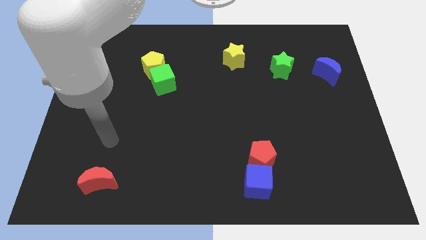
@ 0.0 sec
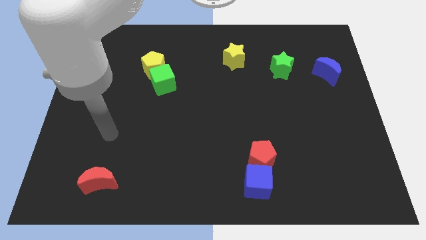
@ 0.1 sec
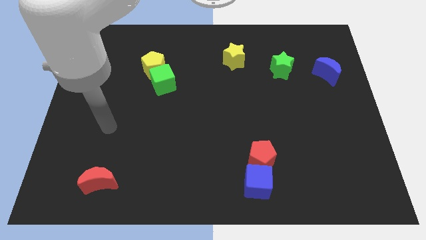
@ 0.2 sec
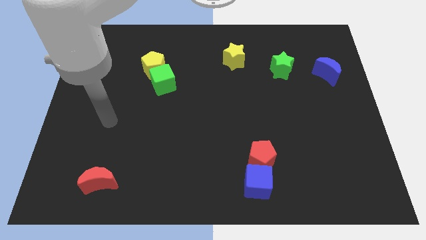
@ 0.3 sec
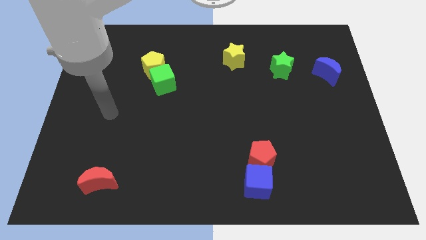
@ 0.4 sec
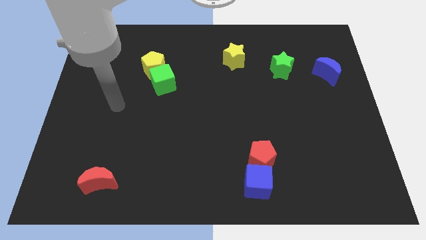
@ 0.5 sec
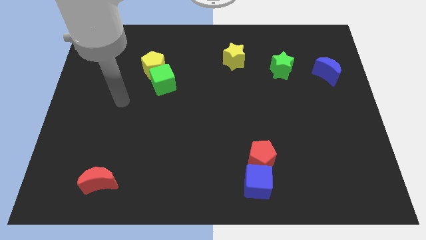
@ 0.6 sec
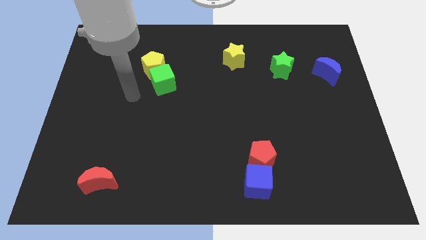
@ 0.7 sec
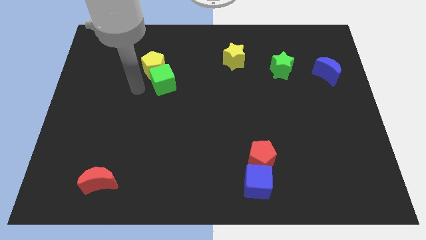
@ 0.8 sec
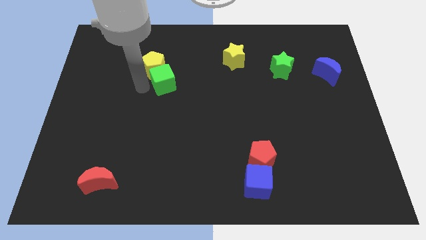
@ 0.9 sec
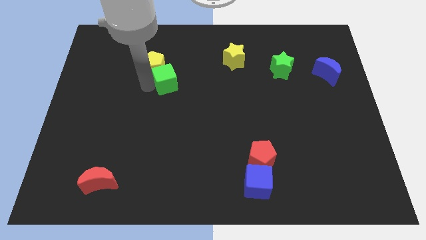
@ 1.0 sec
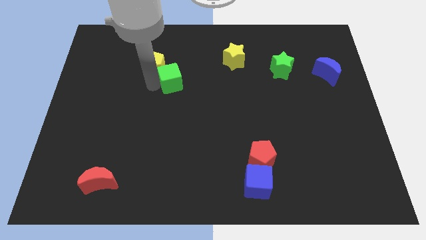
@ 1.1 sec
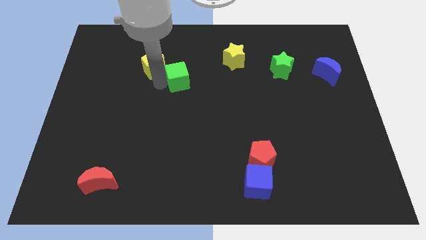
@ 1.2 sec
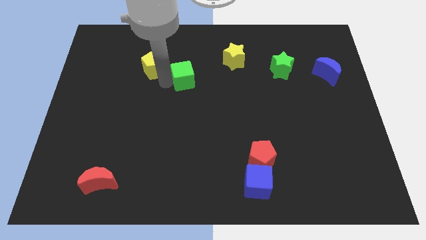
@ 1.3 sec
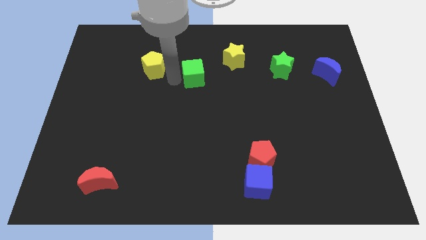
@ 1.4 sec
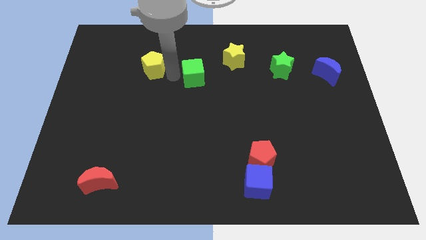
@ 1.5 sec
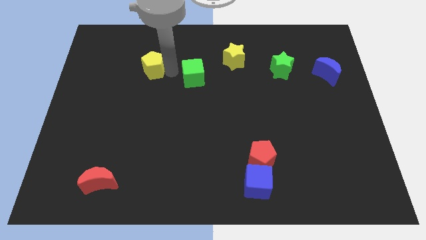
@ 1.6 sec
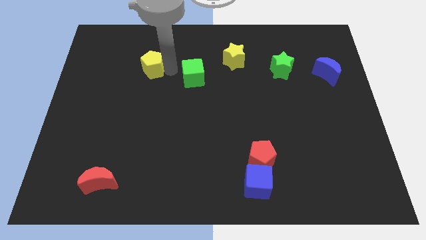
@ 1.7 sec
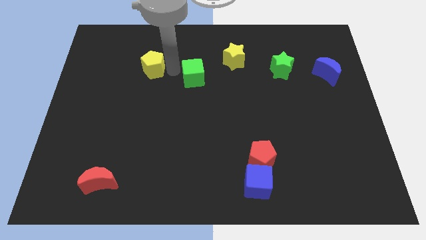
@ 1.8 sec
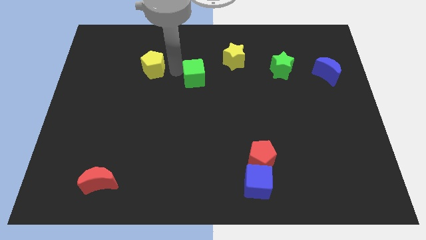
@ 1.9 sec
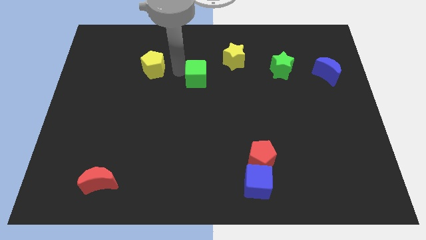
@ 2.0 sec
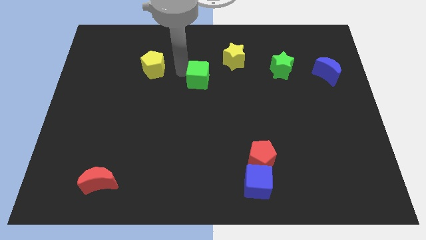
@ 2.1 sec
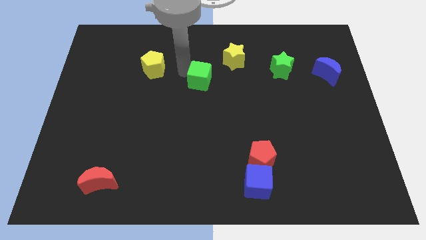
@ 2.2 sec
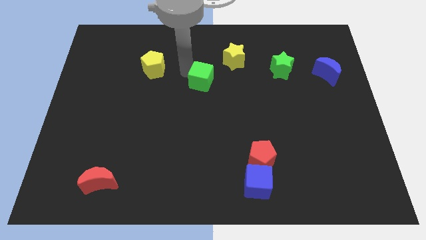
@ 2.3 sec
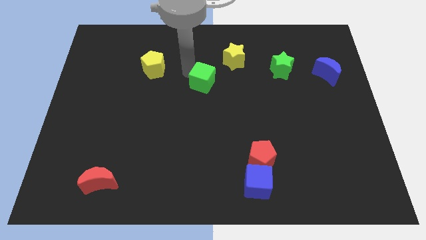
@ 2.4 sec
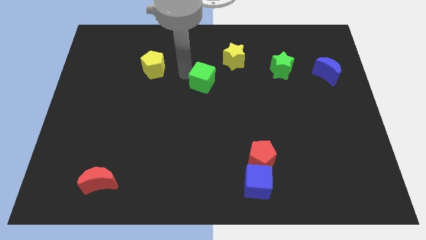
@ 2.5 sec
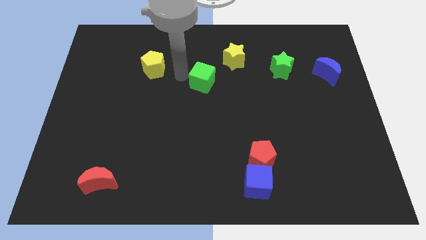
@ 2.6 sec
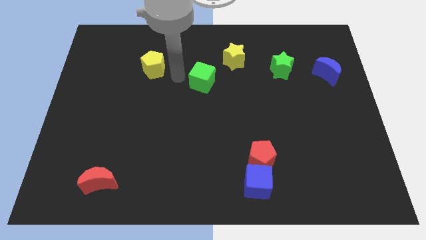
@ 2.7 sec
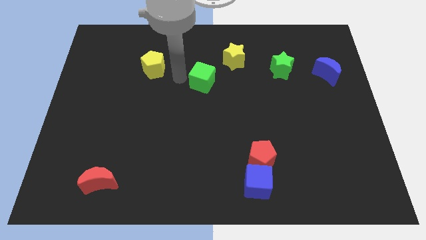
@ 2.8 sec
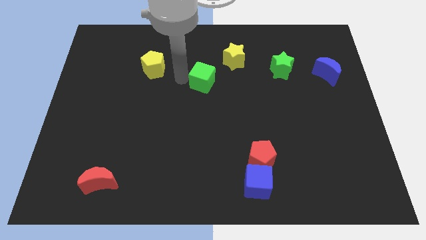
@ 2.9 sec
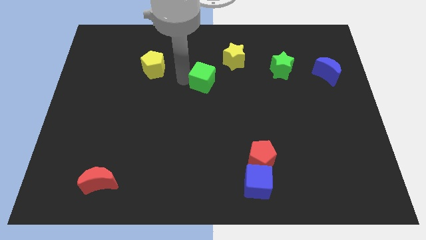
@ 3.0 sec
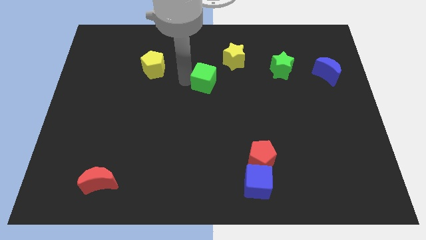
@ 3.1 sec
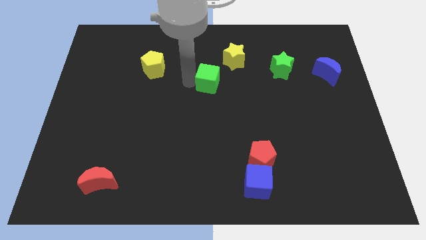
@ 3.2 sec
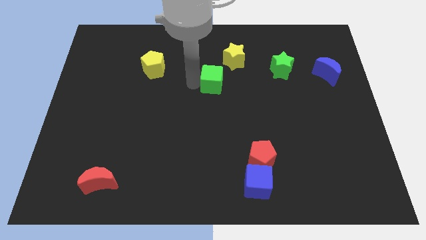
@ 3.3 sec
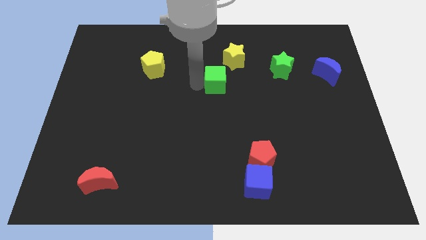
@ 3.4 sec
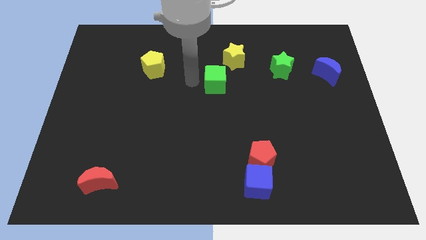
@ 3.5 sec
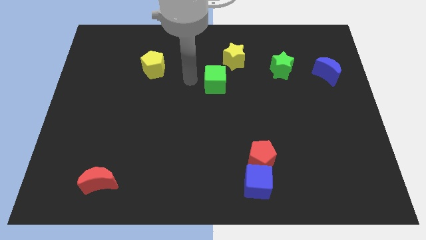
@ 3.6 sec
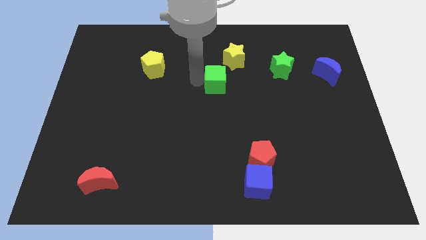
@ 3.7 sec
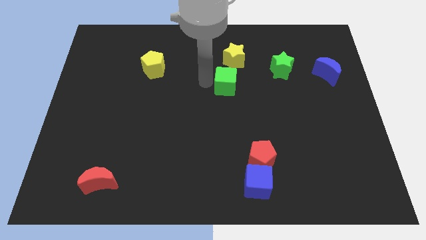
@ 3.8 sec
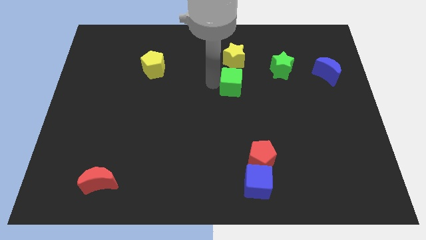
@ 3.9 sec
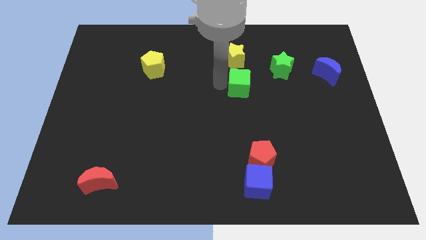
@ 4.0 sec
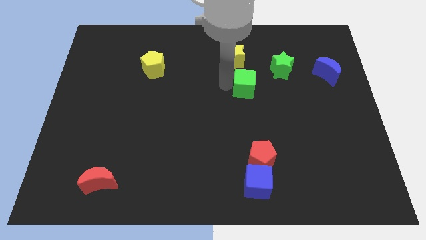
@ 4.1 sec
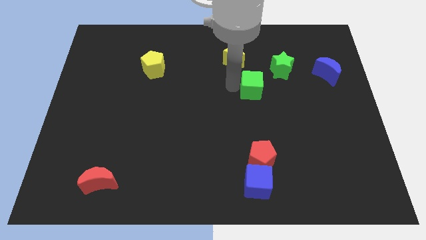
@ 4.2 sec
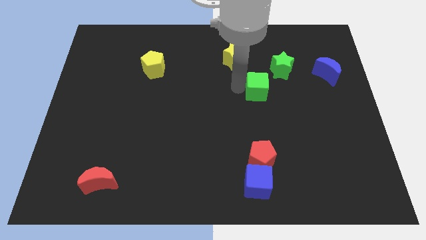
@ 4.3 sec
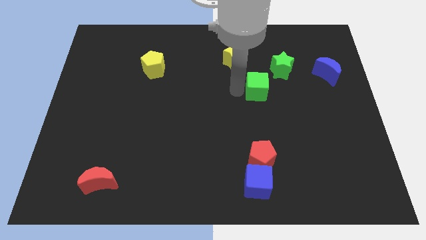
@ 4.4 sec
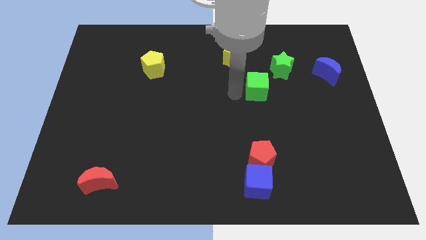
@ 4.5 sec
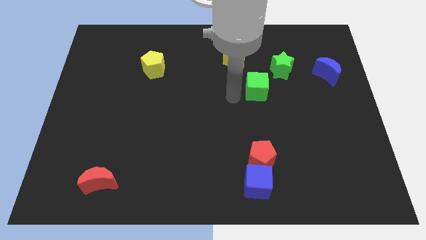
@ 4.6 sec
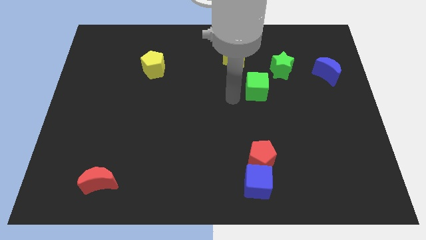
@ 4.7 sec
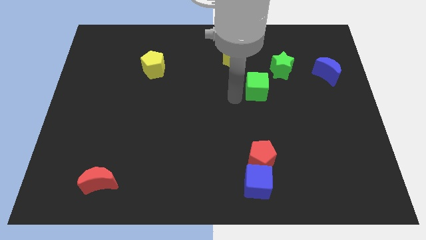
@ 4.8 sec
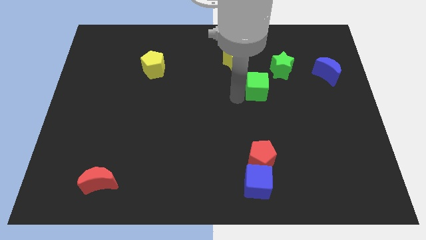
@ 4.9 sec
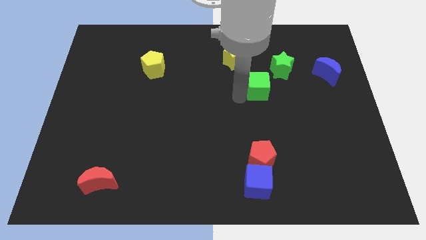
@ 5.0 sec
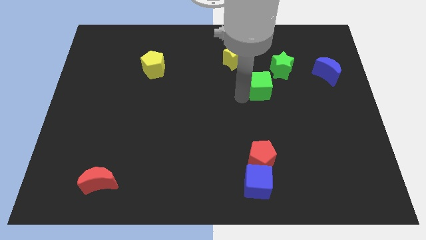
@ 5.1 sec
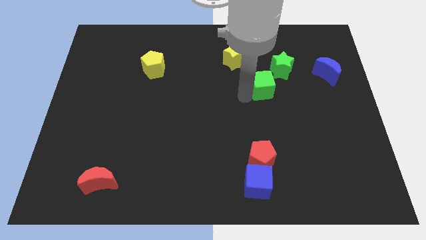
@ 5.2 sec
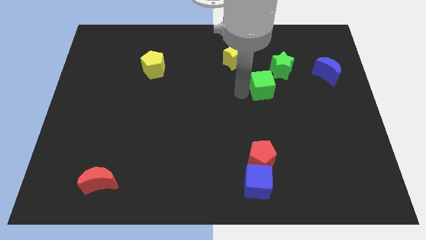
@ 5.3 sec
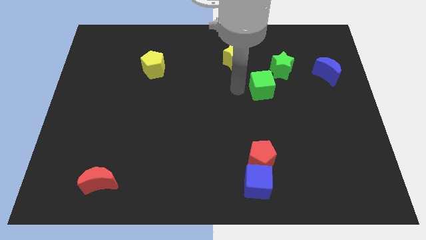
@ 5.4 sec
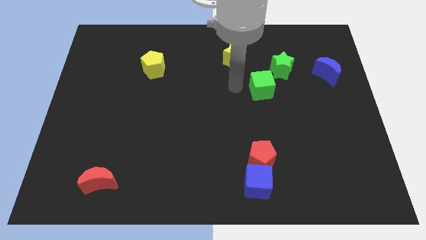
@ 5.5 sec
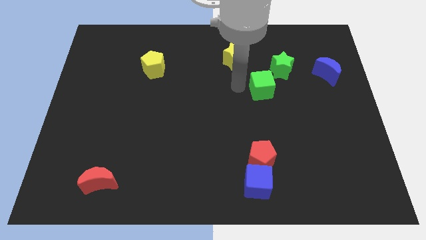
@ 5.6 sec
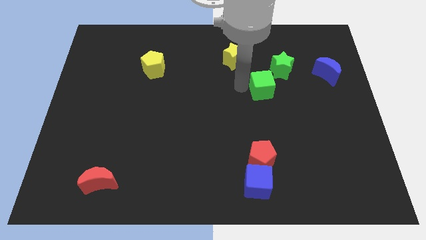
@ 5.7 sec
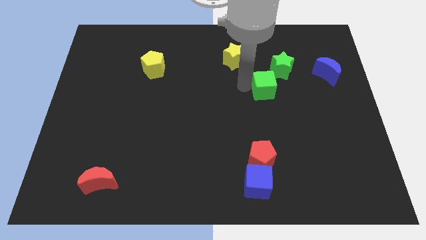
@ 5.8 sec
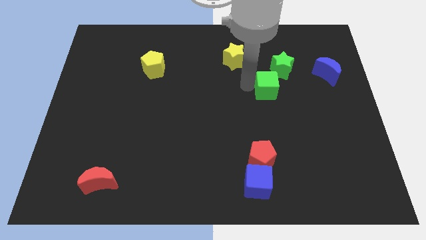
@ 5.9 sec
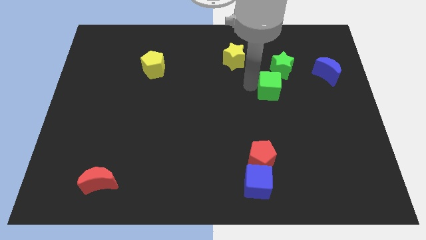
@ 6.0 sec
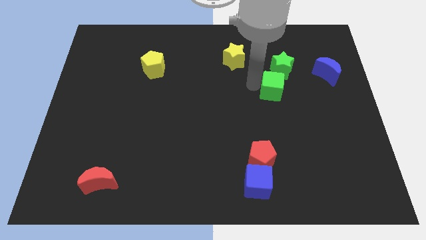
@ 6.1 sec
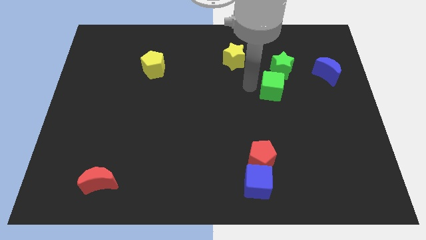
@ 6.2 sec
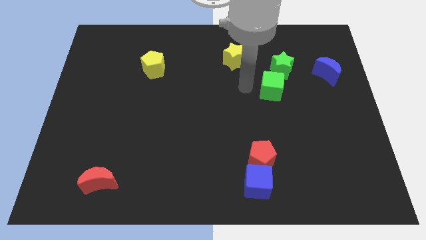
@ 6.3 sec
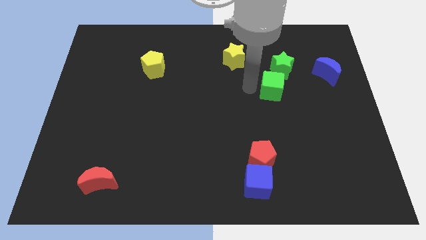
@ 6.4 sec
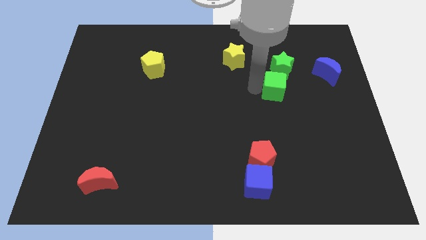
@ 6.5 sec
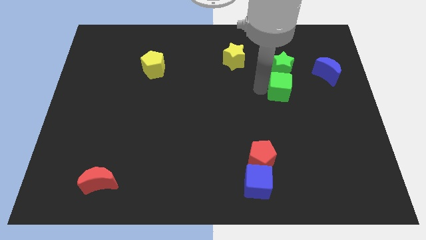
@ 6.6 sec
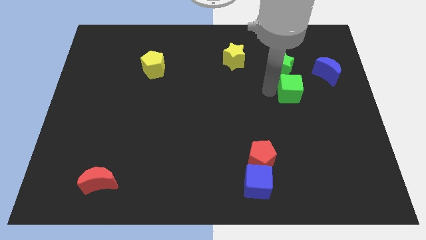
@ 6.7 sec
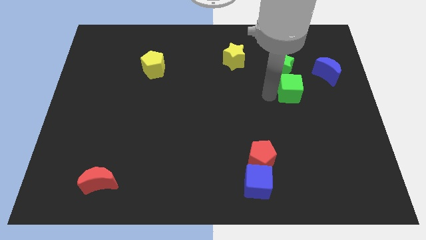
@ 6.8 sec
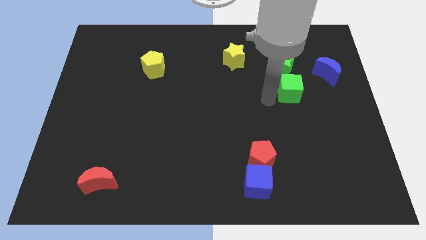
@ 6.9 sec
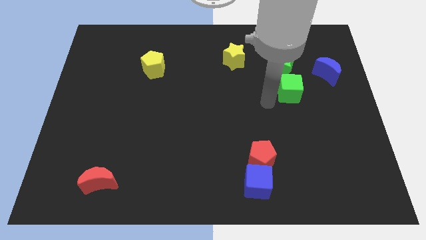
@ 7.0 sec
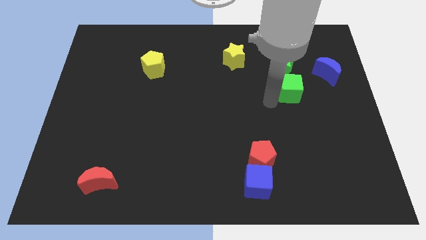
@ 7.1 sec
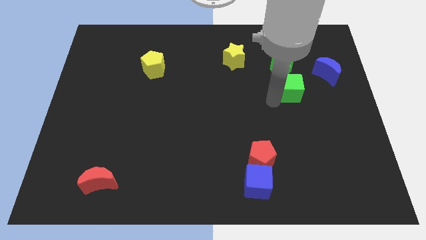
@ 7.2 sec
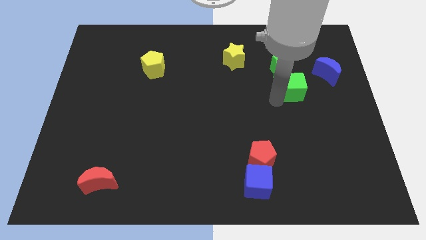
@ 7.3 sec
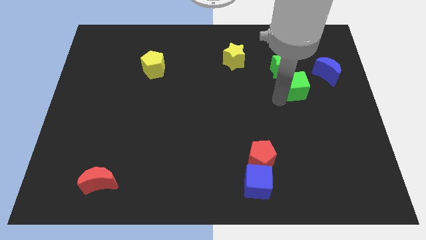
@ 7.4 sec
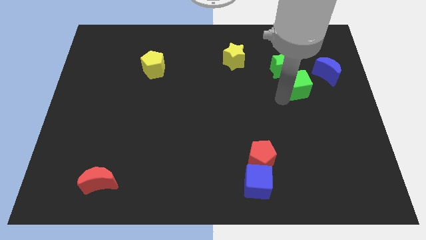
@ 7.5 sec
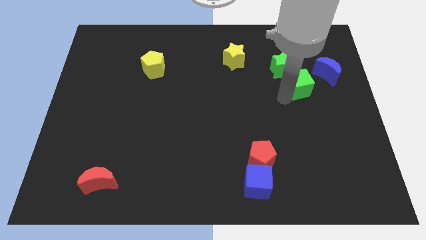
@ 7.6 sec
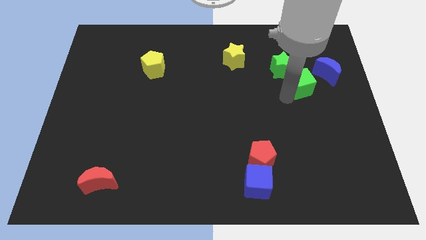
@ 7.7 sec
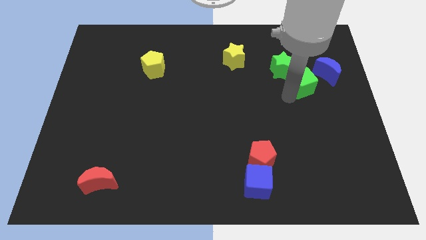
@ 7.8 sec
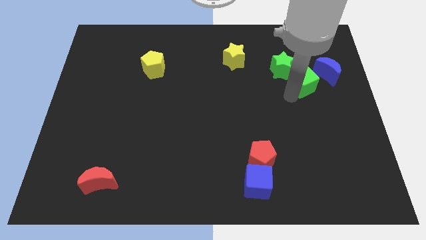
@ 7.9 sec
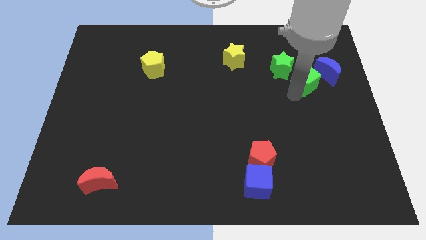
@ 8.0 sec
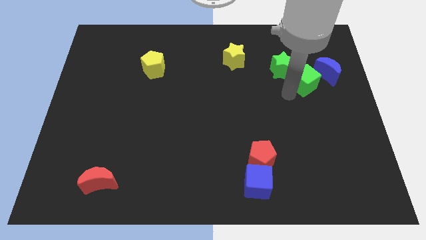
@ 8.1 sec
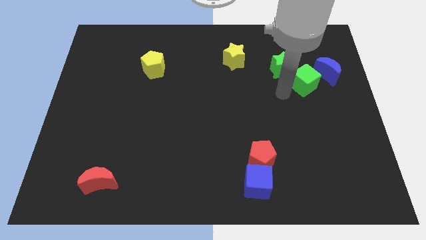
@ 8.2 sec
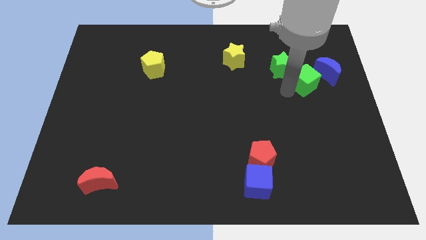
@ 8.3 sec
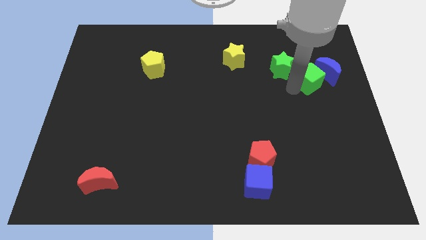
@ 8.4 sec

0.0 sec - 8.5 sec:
put the green cube towards the blue moon
